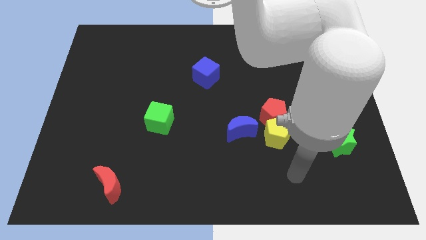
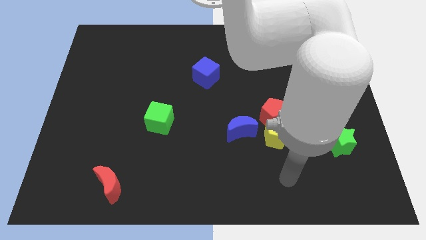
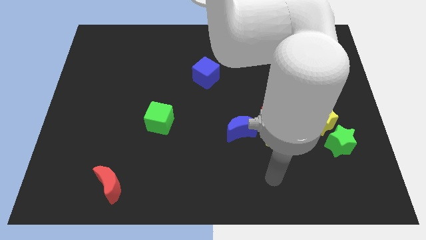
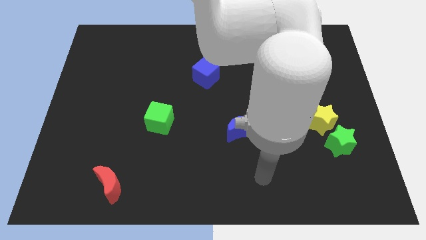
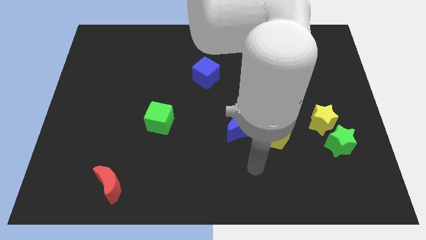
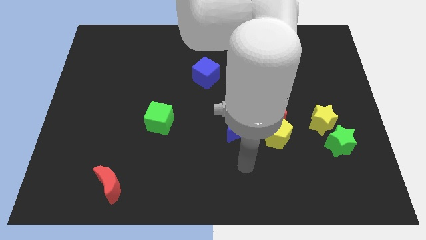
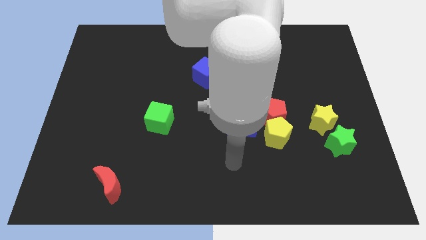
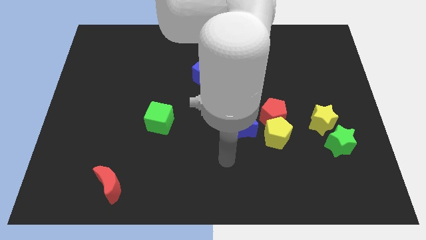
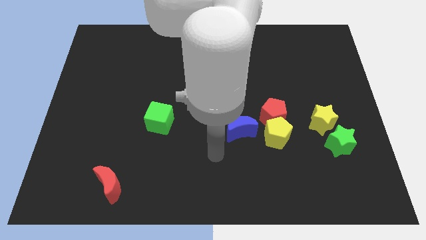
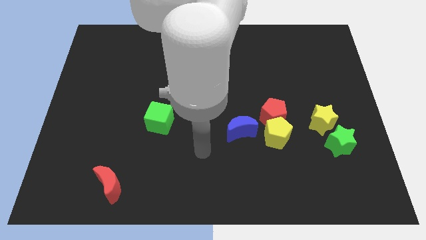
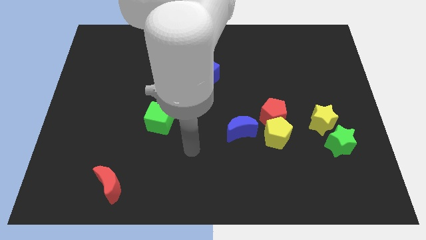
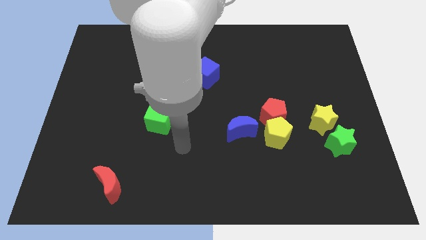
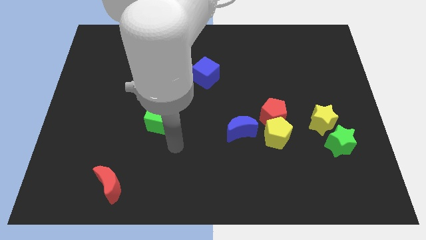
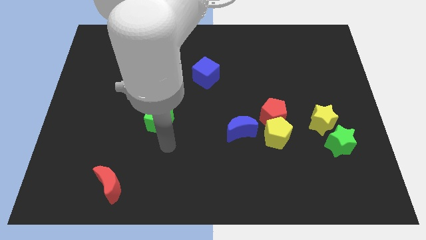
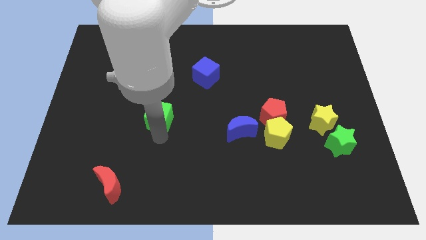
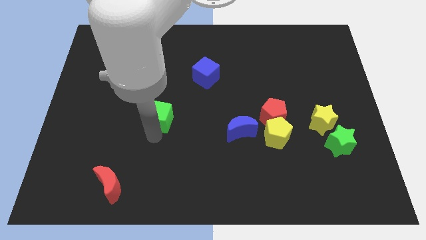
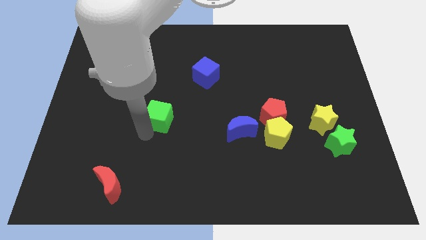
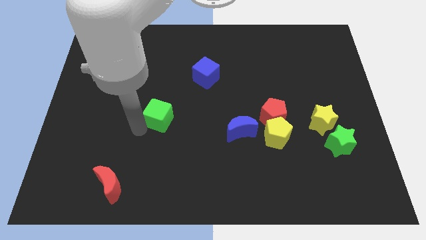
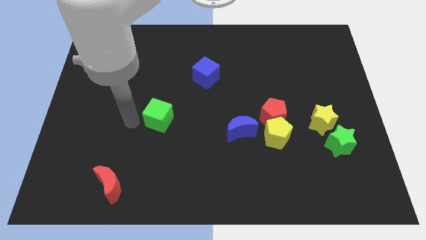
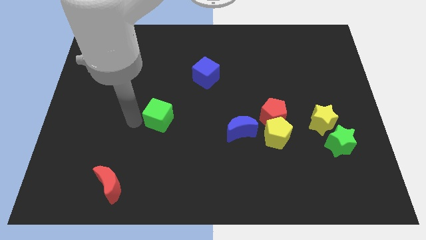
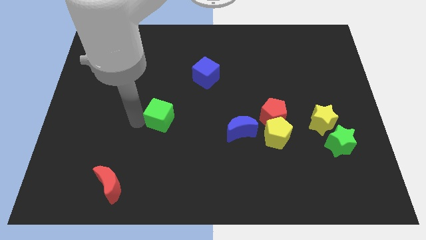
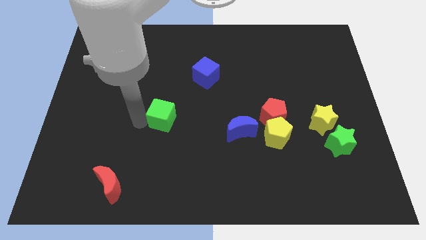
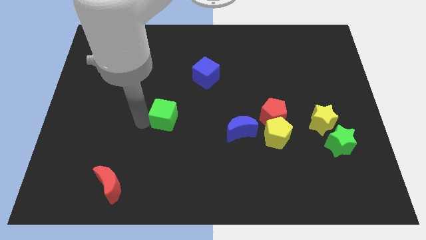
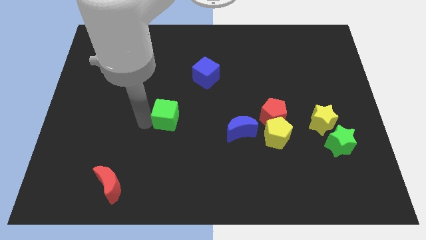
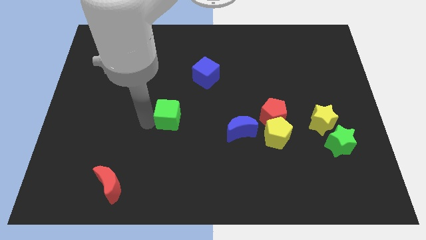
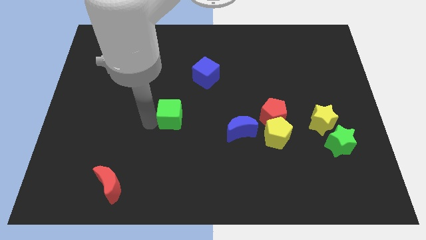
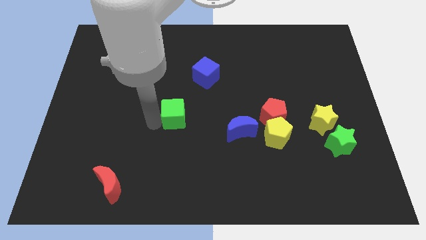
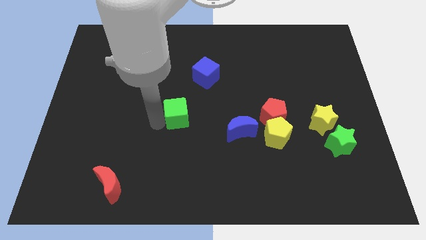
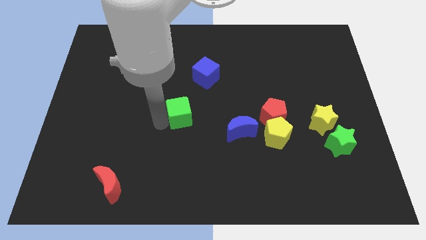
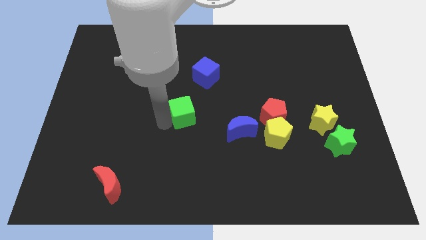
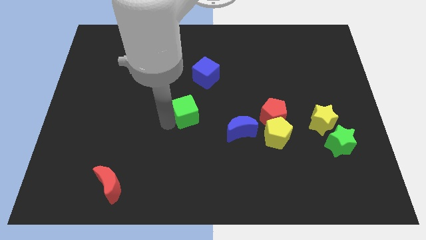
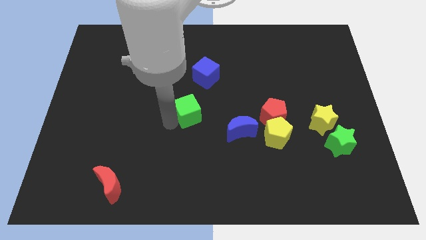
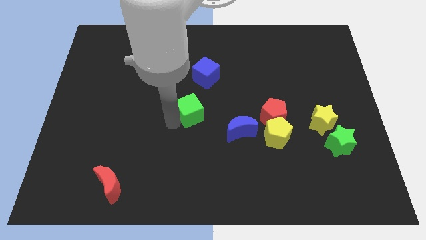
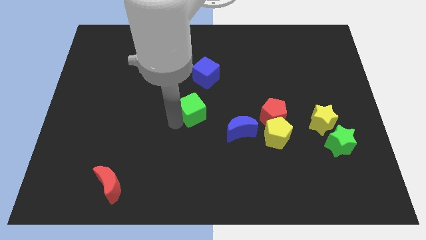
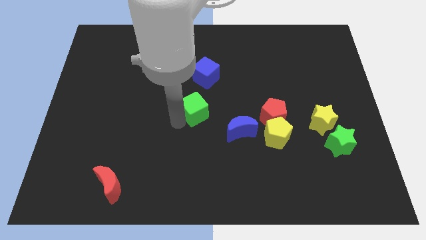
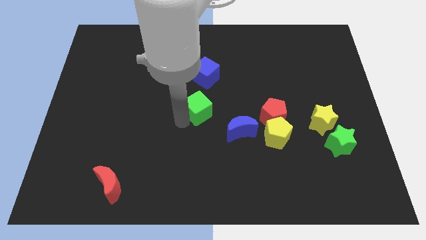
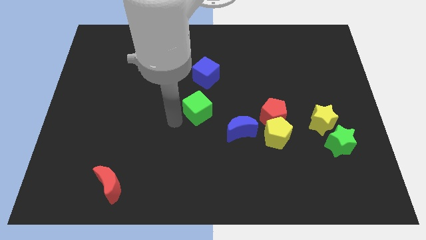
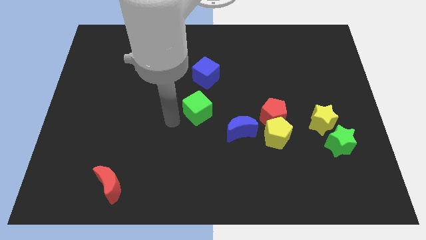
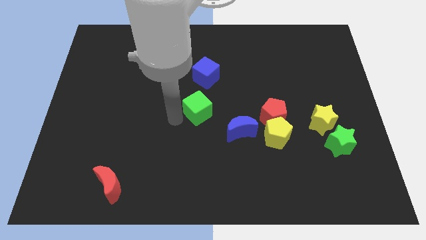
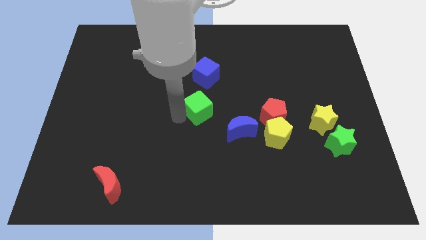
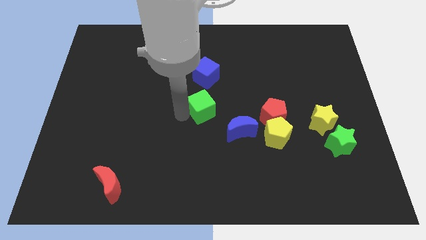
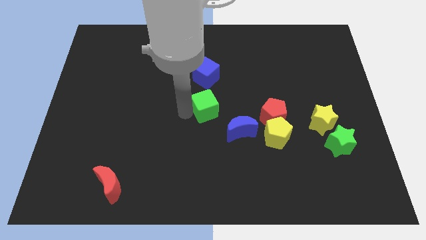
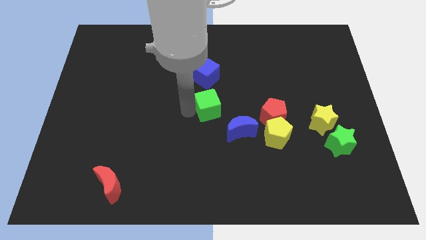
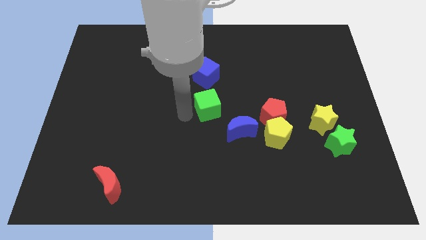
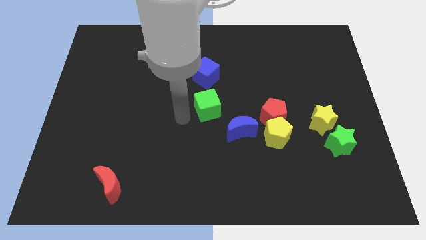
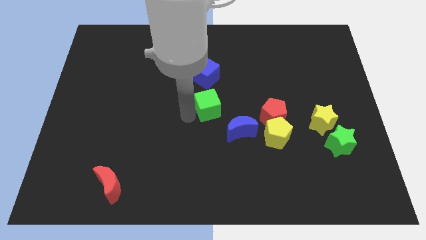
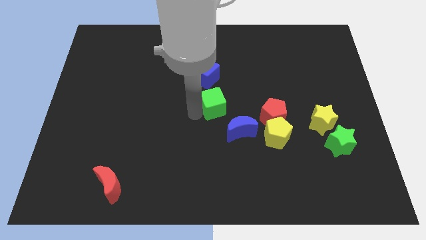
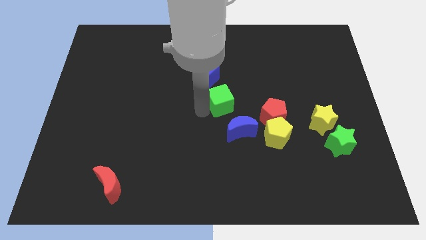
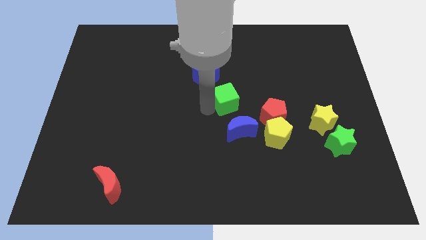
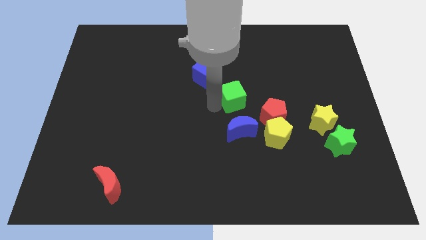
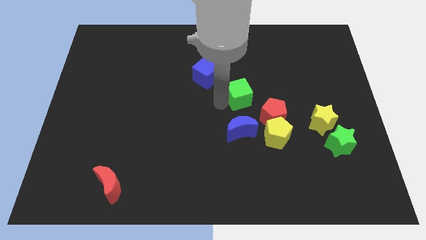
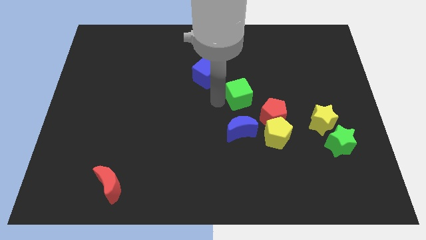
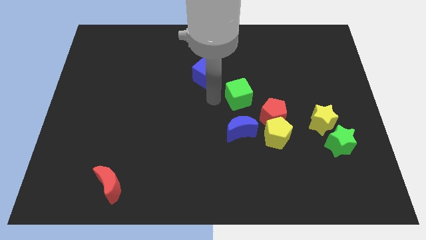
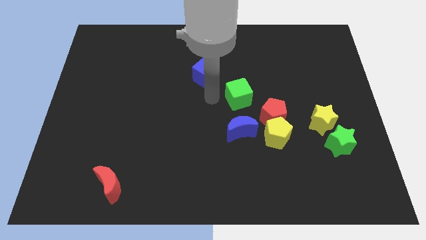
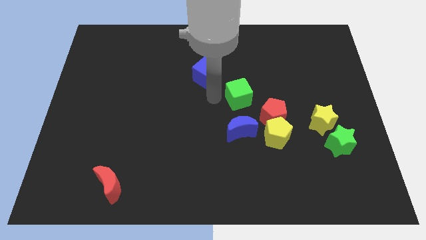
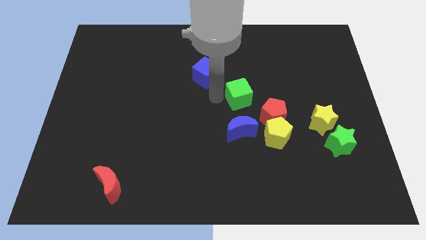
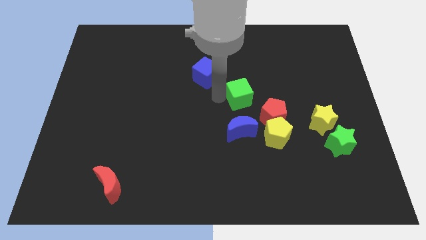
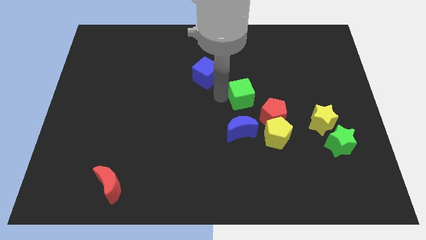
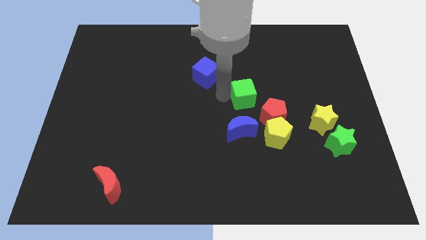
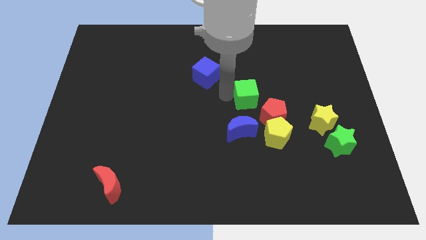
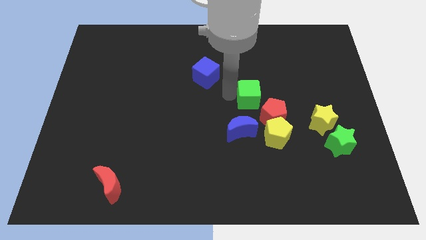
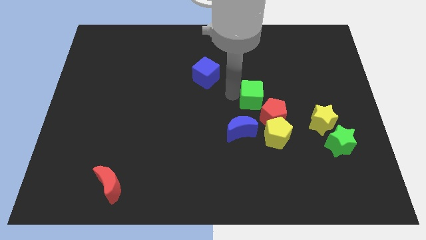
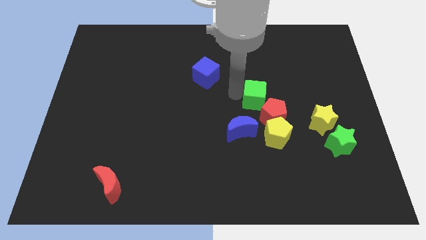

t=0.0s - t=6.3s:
push the green cube to the right

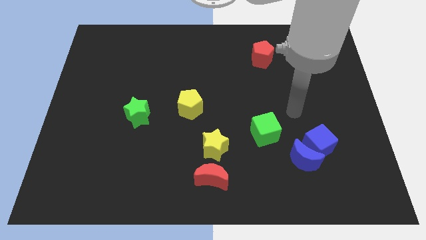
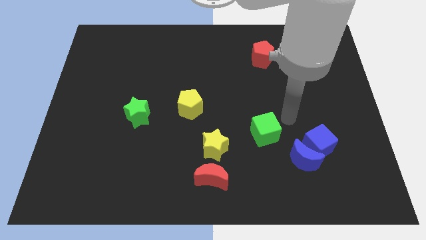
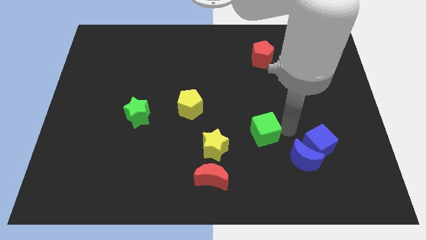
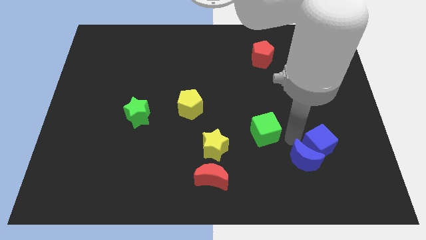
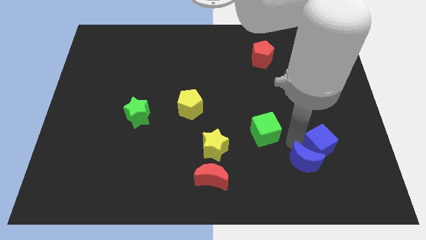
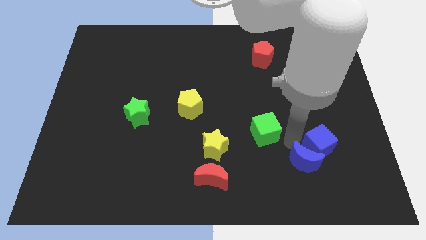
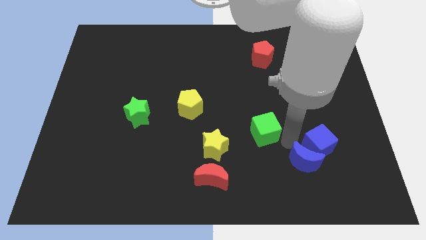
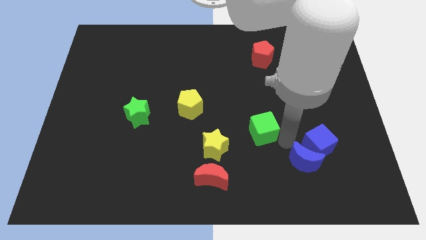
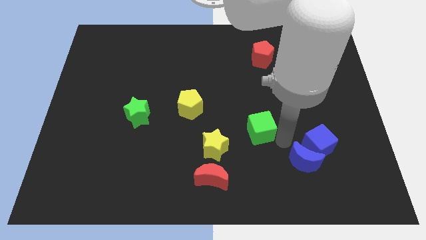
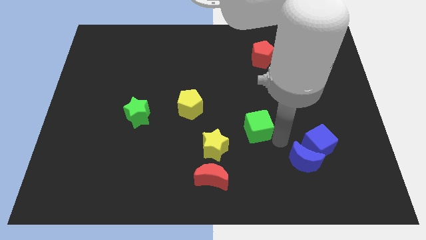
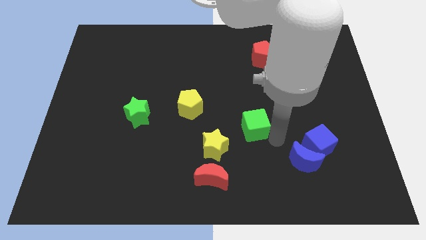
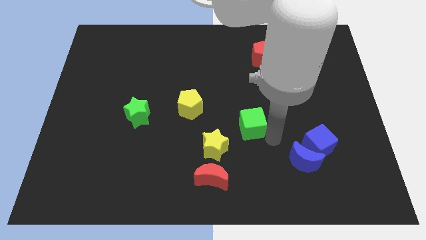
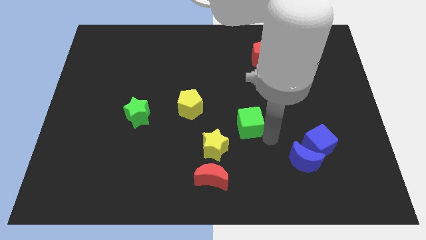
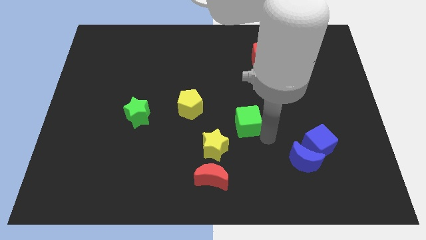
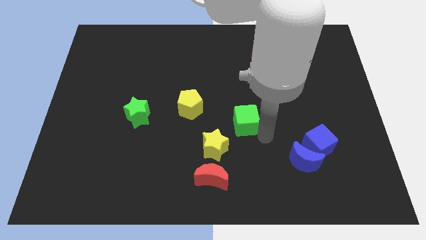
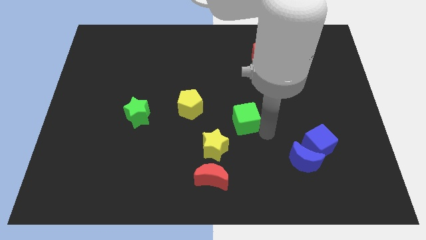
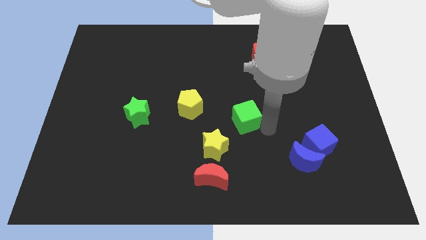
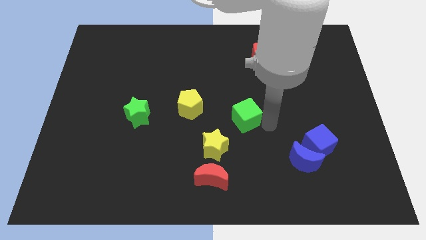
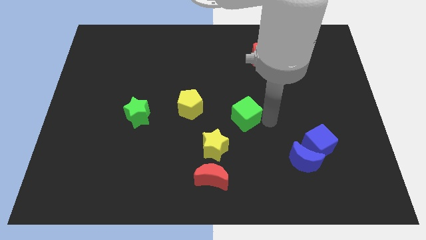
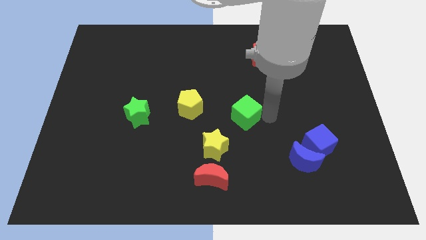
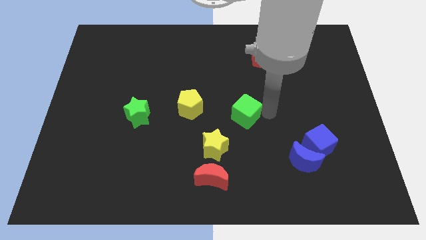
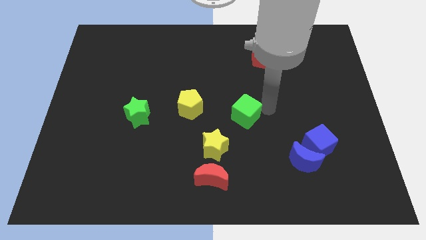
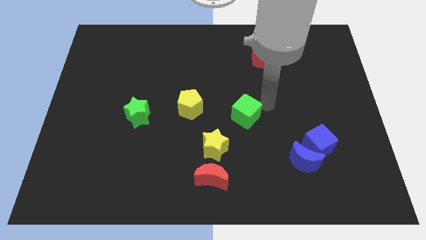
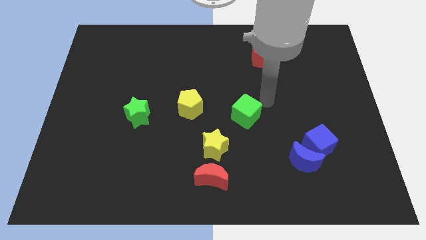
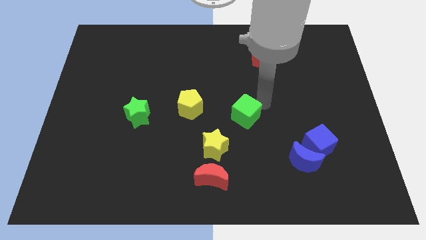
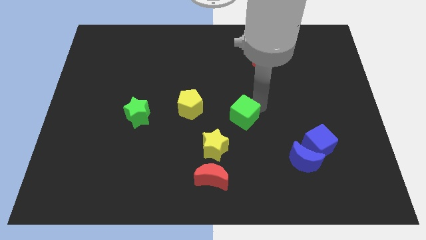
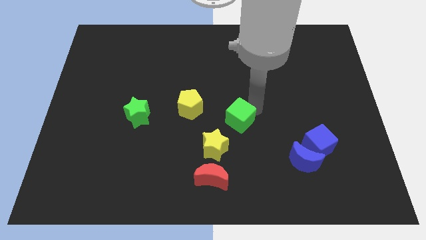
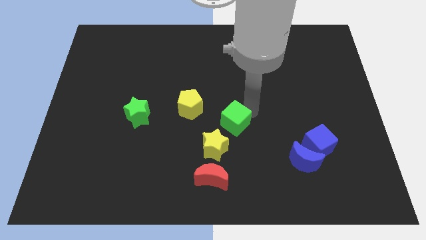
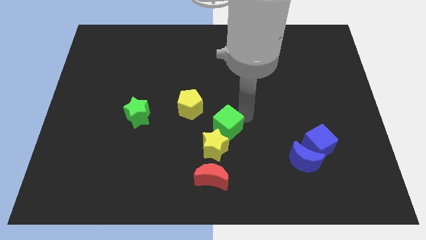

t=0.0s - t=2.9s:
push the green cube to the left a bit
